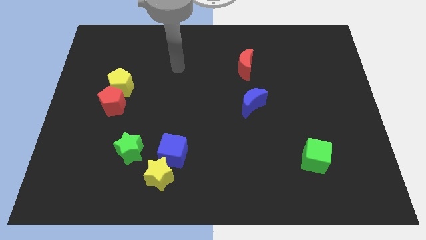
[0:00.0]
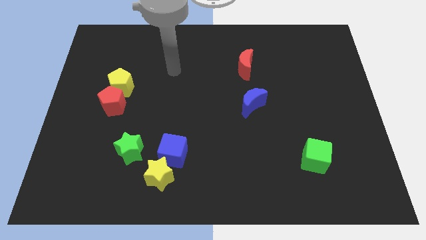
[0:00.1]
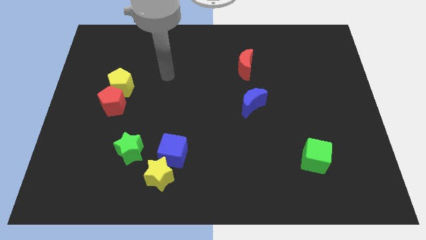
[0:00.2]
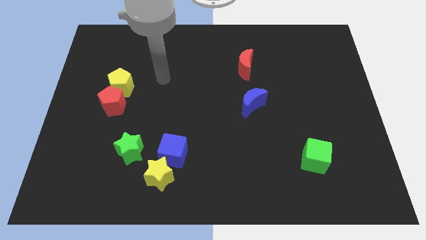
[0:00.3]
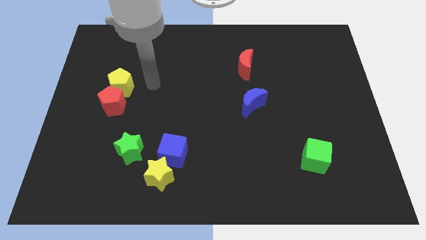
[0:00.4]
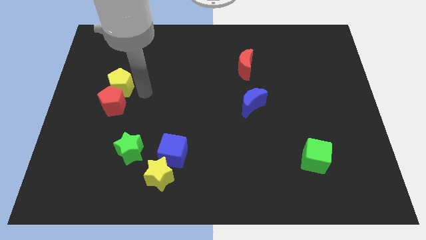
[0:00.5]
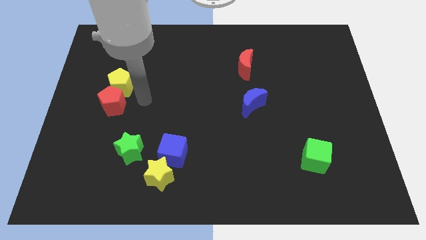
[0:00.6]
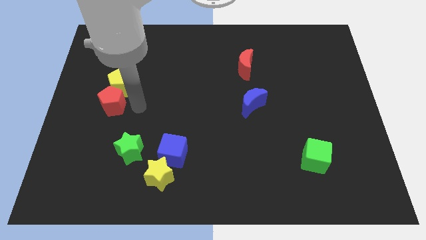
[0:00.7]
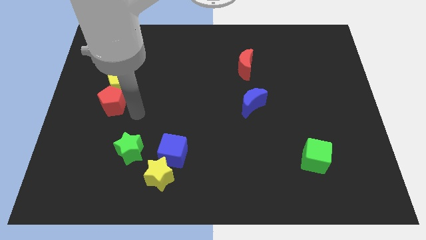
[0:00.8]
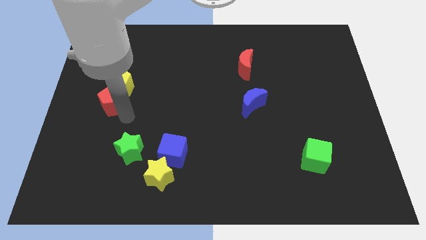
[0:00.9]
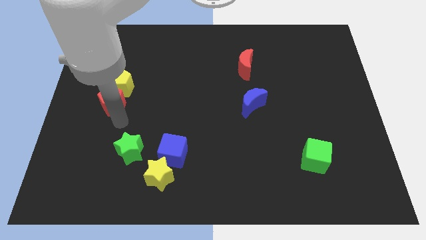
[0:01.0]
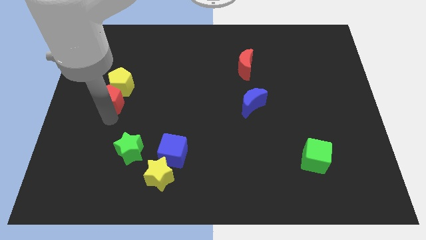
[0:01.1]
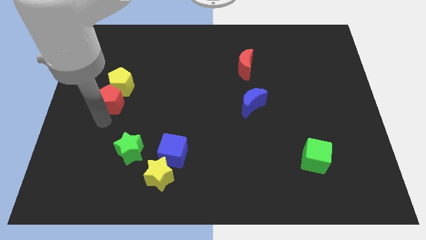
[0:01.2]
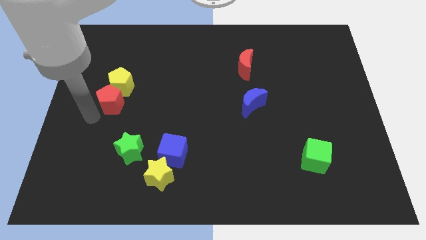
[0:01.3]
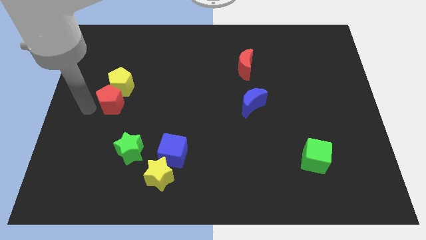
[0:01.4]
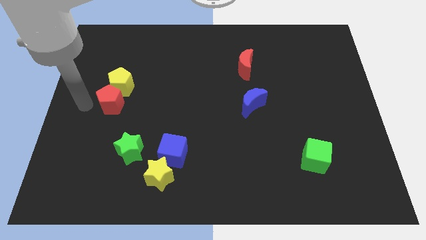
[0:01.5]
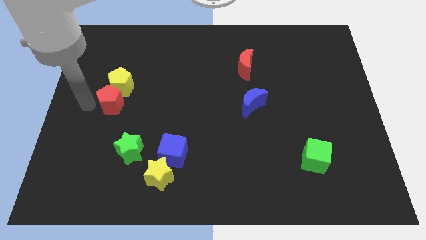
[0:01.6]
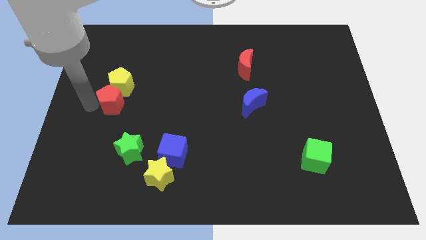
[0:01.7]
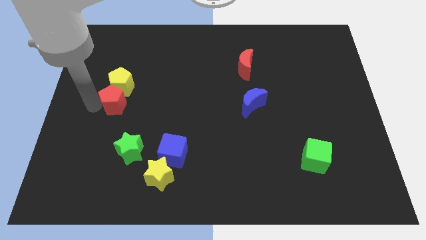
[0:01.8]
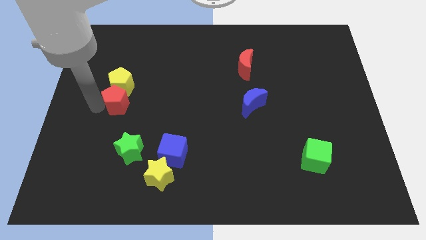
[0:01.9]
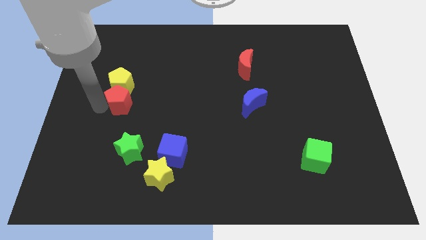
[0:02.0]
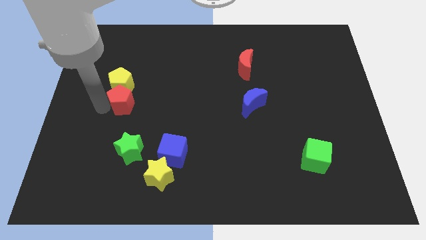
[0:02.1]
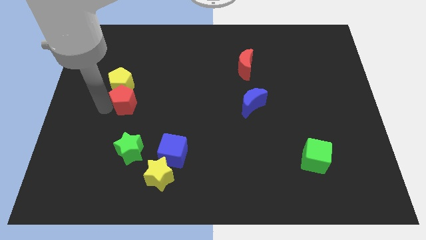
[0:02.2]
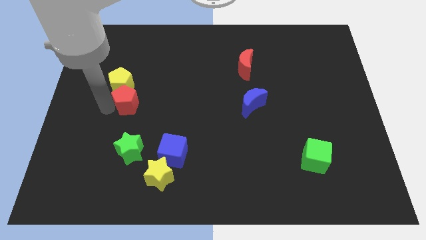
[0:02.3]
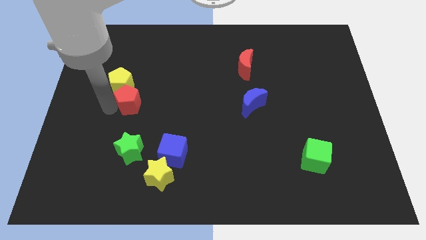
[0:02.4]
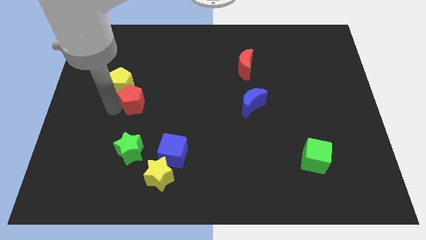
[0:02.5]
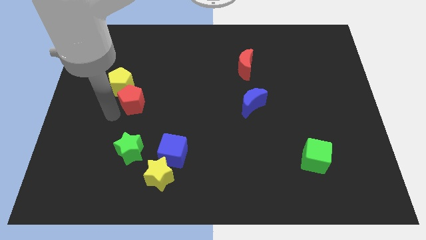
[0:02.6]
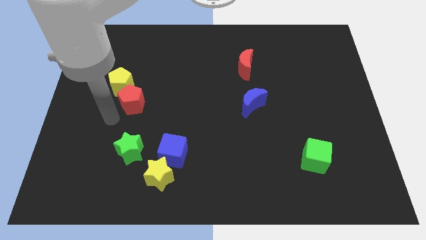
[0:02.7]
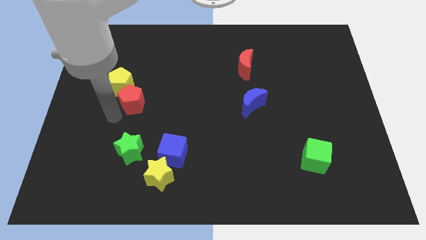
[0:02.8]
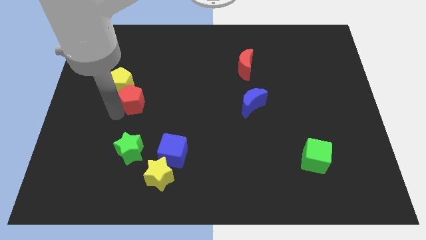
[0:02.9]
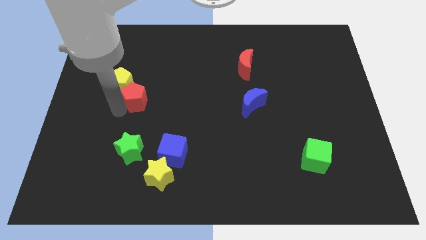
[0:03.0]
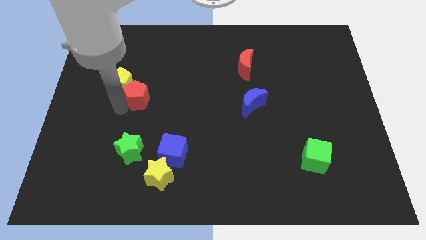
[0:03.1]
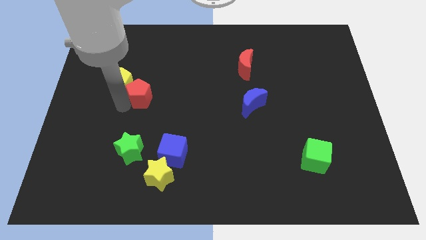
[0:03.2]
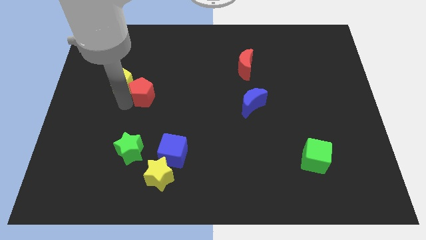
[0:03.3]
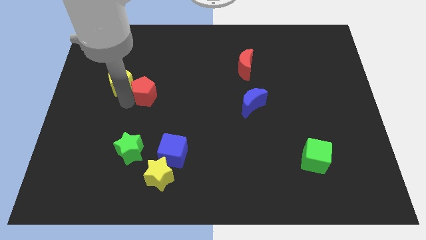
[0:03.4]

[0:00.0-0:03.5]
move the red pentagon upwards and right a little

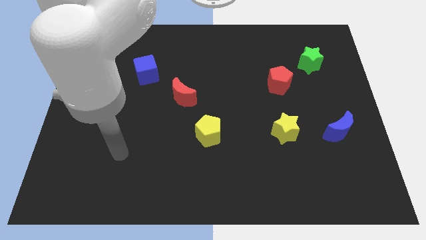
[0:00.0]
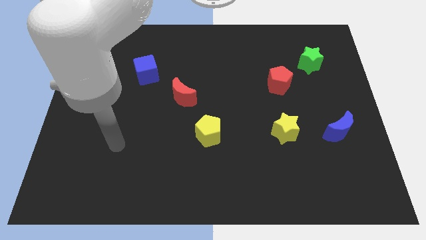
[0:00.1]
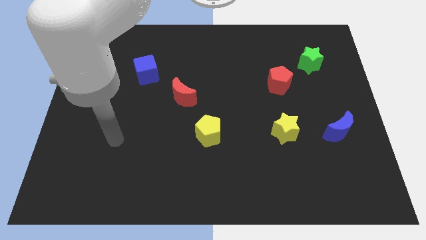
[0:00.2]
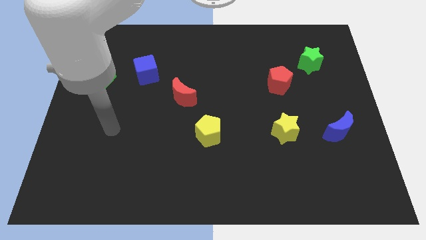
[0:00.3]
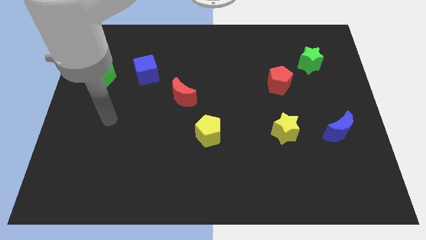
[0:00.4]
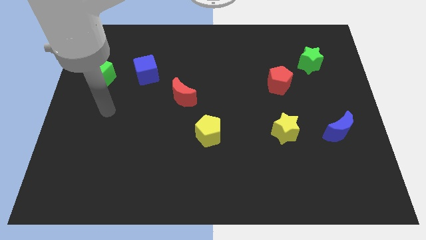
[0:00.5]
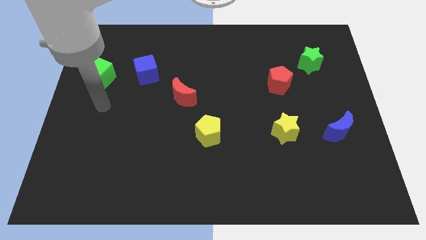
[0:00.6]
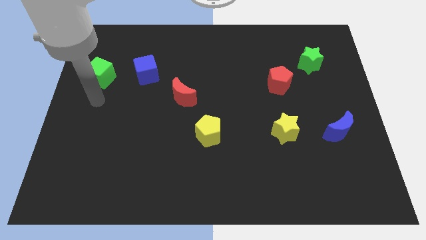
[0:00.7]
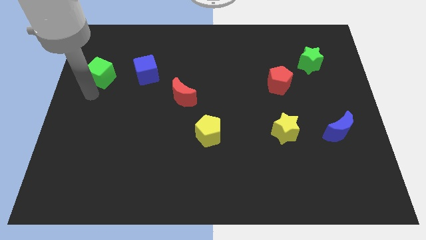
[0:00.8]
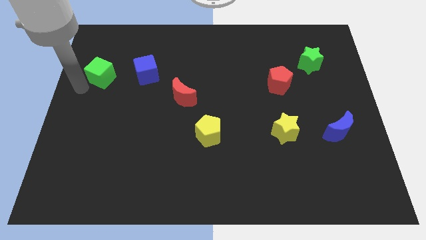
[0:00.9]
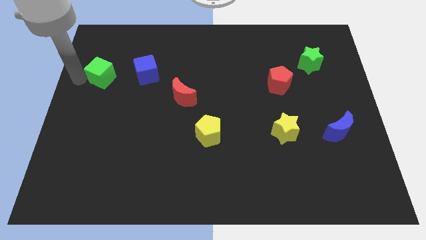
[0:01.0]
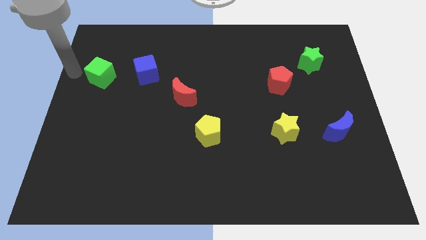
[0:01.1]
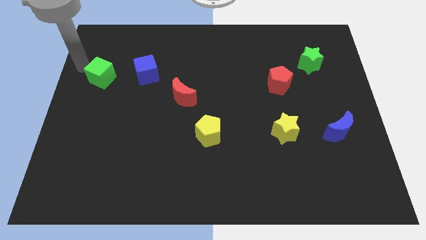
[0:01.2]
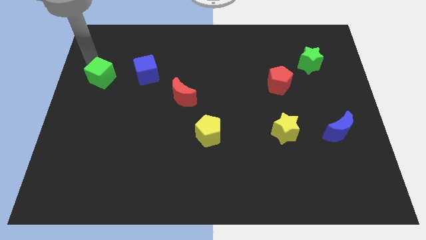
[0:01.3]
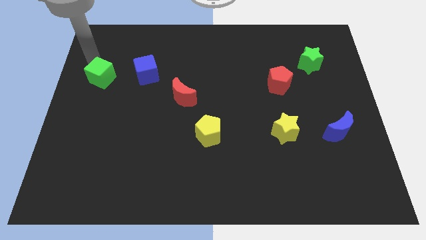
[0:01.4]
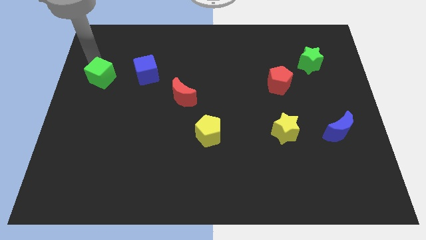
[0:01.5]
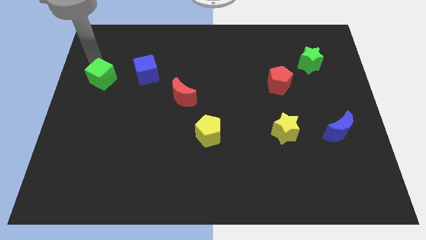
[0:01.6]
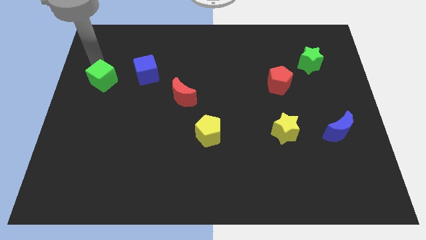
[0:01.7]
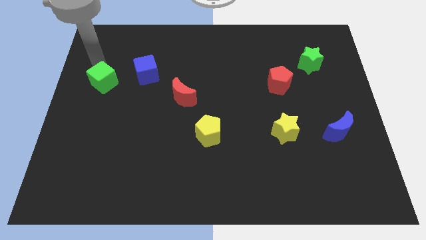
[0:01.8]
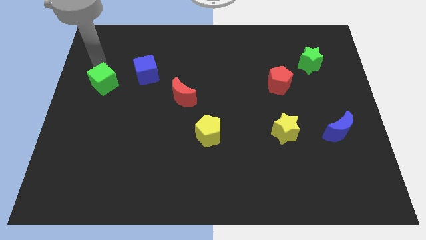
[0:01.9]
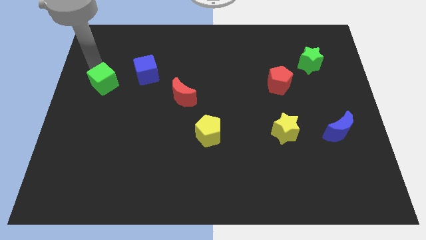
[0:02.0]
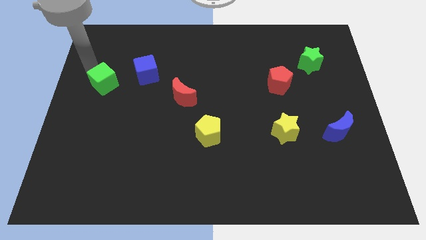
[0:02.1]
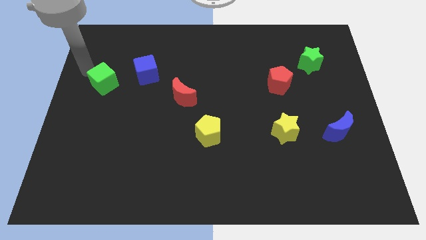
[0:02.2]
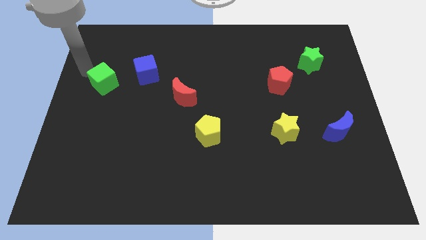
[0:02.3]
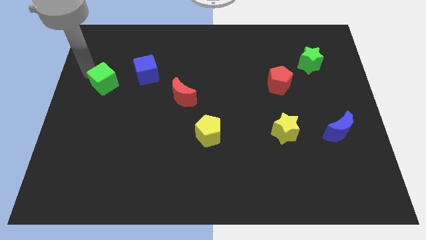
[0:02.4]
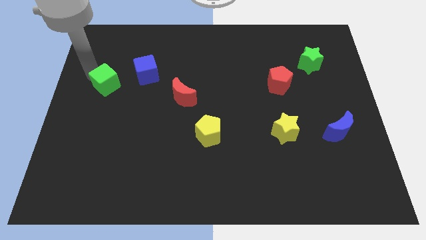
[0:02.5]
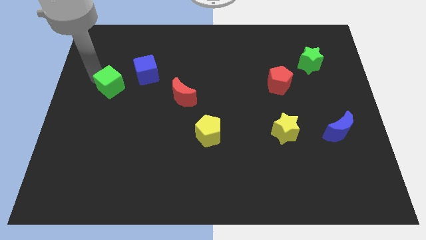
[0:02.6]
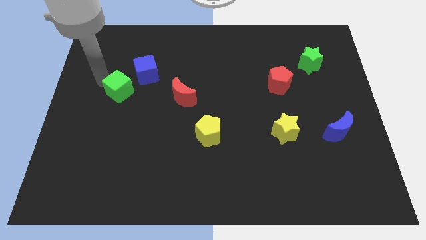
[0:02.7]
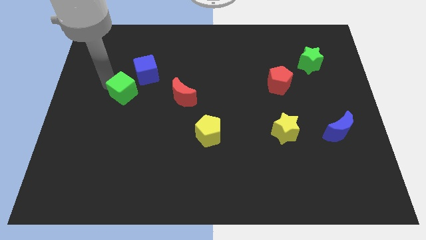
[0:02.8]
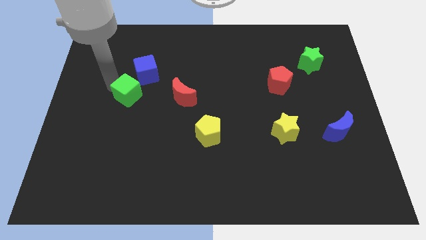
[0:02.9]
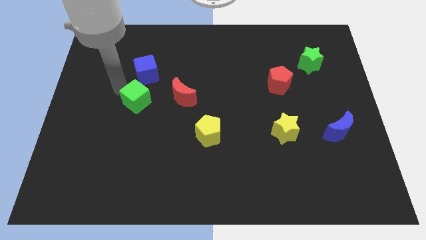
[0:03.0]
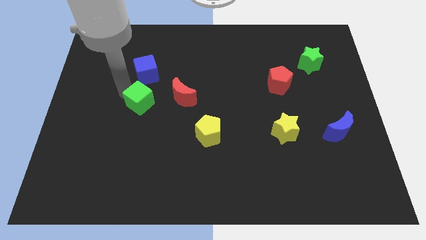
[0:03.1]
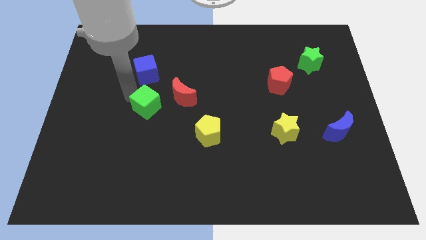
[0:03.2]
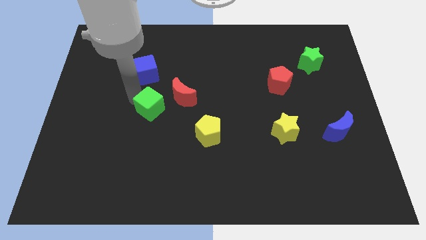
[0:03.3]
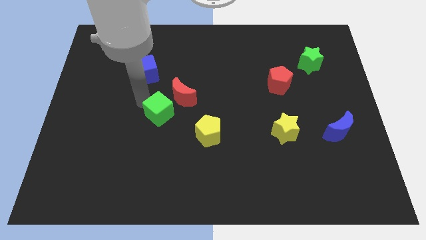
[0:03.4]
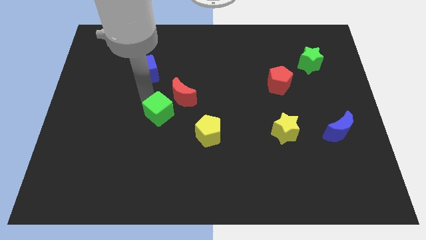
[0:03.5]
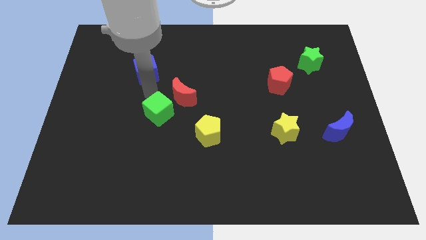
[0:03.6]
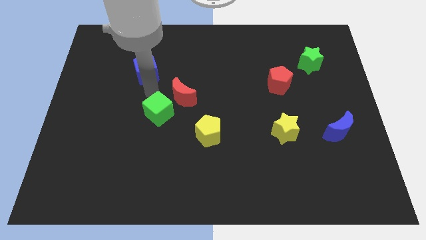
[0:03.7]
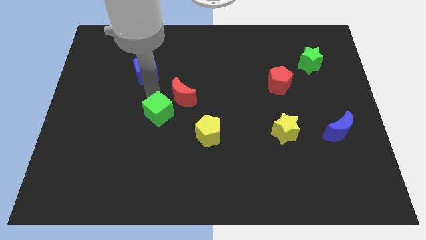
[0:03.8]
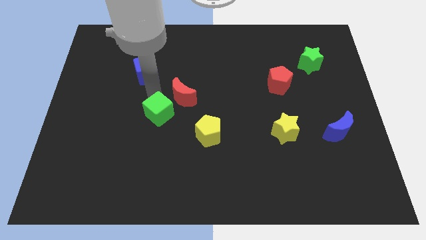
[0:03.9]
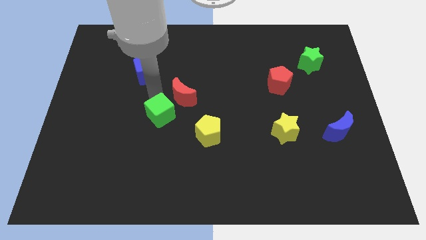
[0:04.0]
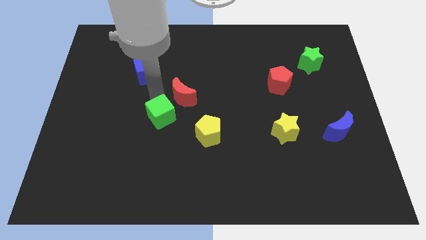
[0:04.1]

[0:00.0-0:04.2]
push the green cube down and to the right diagonally
